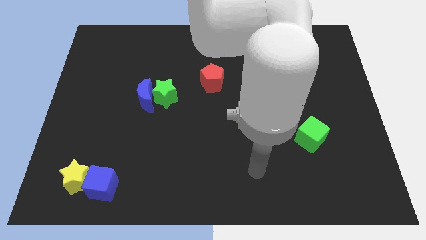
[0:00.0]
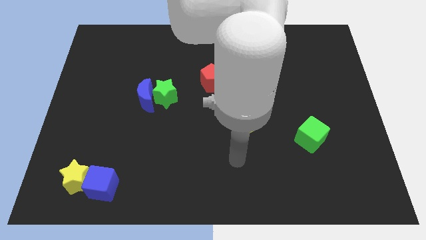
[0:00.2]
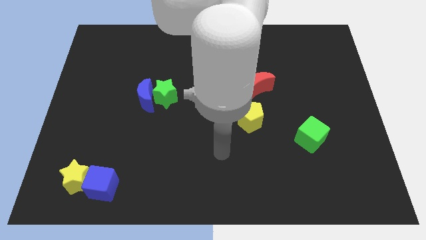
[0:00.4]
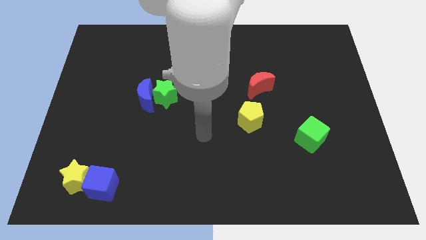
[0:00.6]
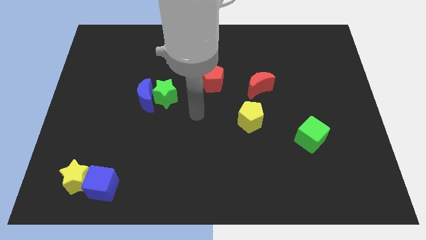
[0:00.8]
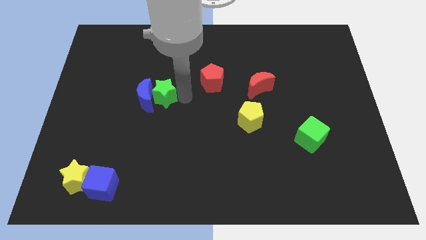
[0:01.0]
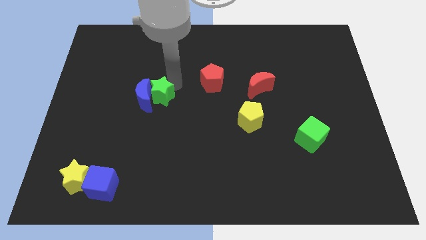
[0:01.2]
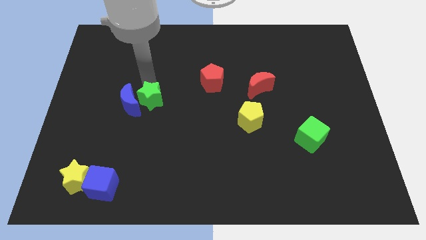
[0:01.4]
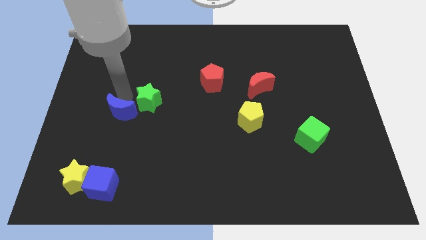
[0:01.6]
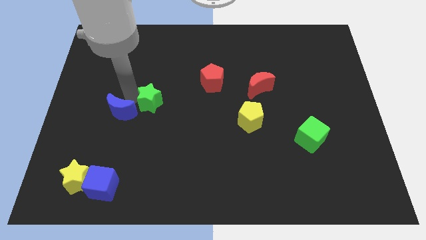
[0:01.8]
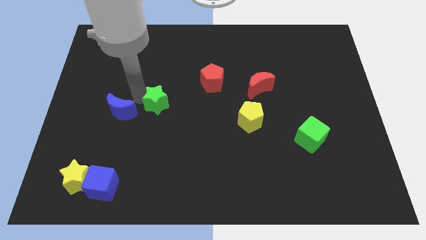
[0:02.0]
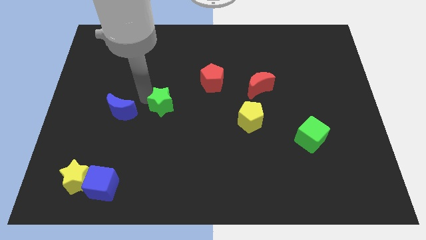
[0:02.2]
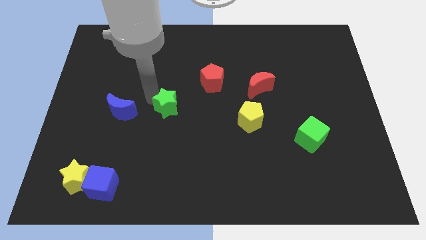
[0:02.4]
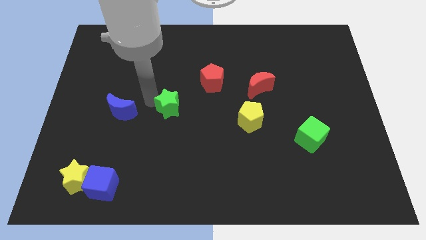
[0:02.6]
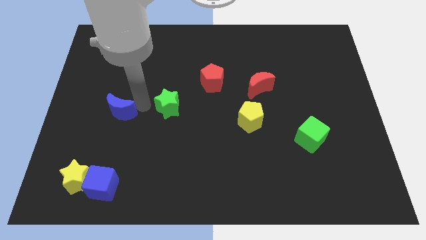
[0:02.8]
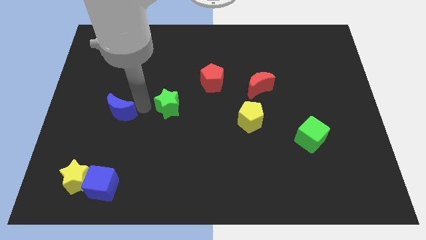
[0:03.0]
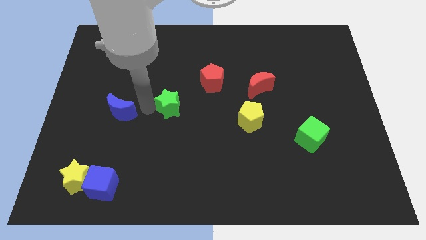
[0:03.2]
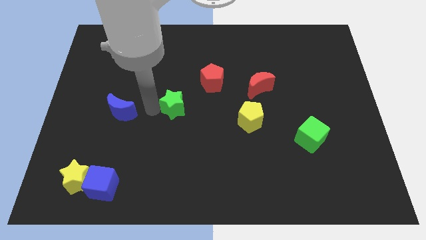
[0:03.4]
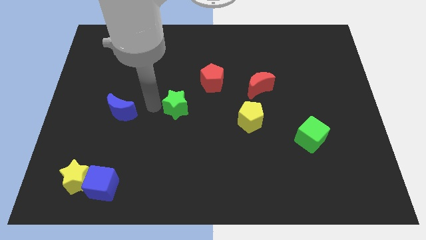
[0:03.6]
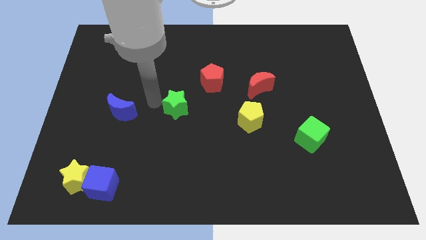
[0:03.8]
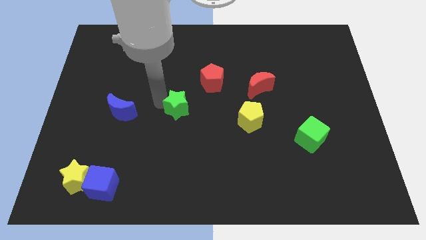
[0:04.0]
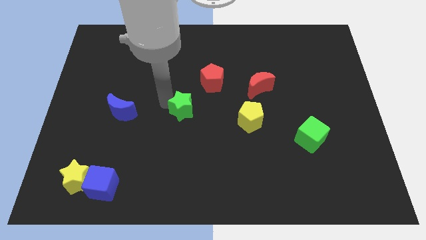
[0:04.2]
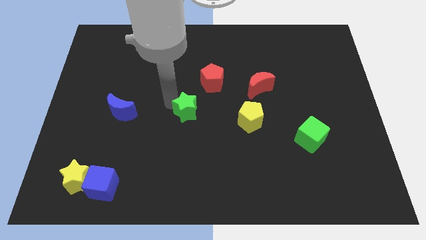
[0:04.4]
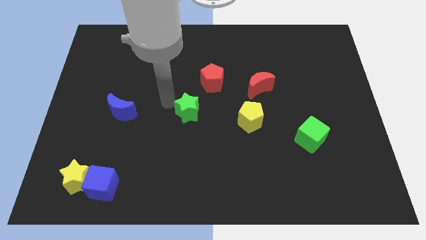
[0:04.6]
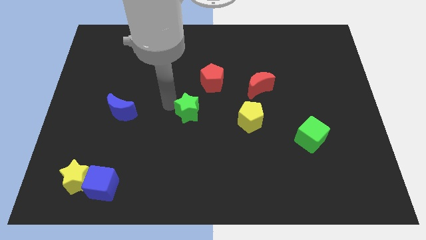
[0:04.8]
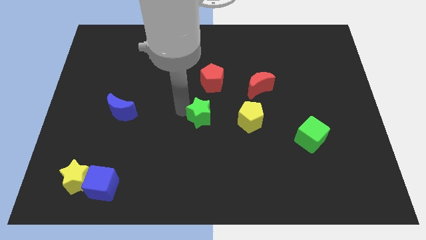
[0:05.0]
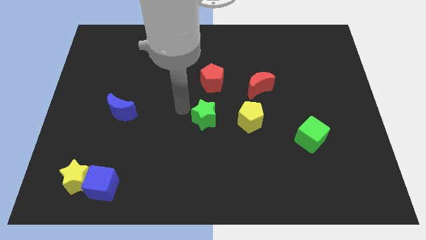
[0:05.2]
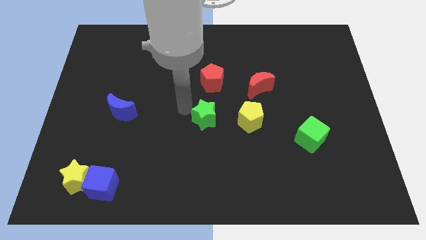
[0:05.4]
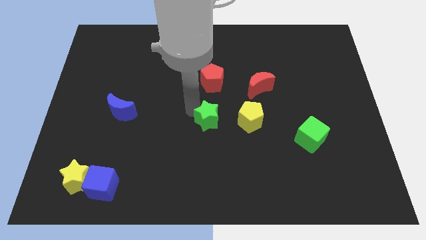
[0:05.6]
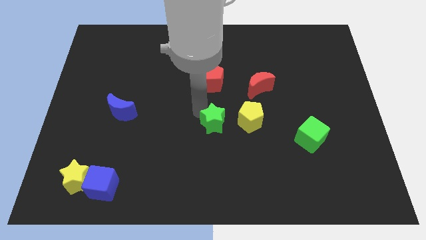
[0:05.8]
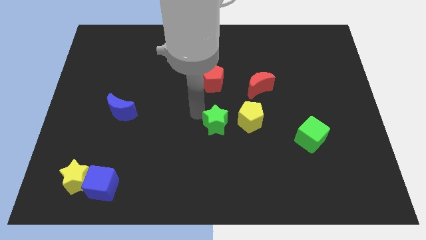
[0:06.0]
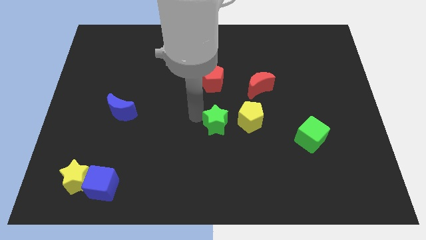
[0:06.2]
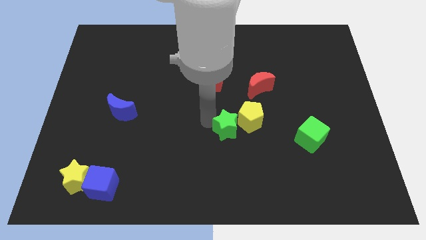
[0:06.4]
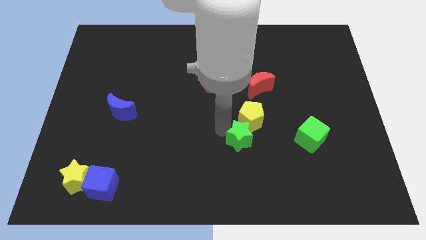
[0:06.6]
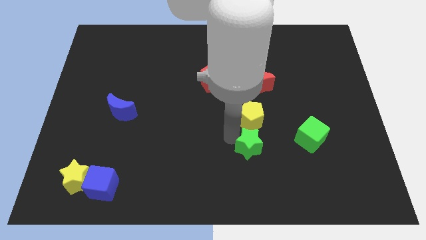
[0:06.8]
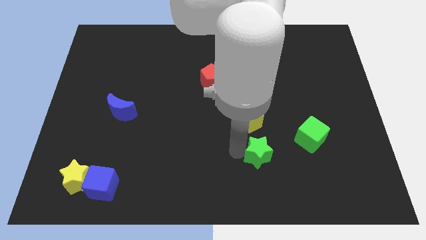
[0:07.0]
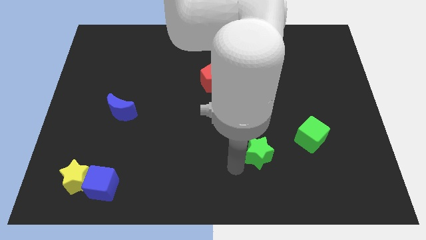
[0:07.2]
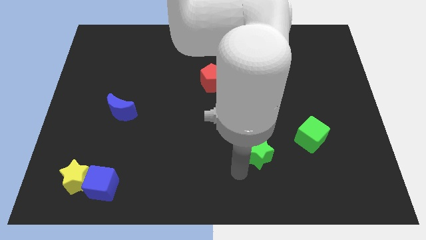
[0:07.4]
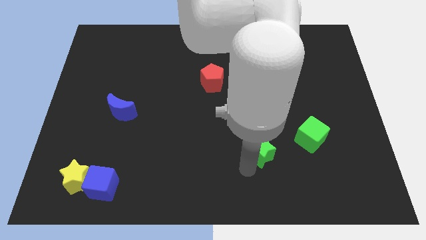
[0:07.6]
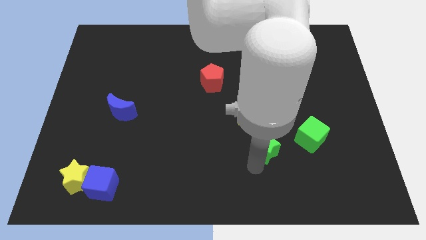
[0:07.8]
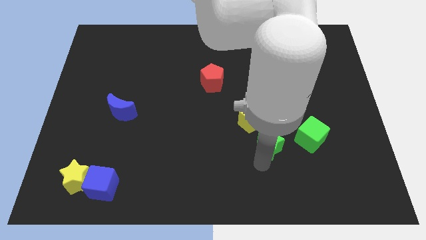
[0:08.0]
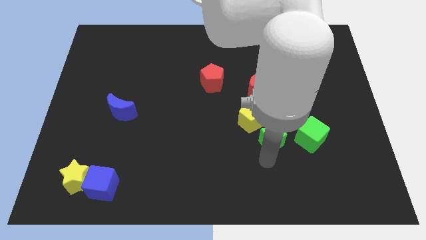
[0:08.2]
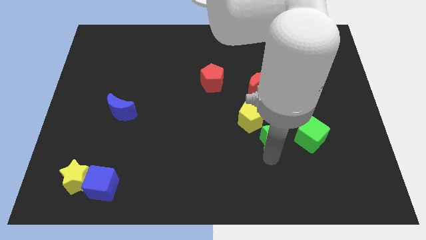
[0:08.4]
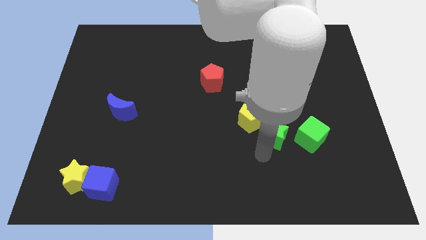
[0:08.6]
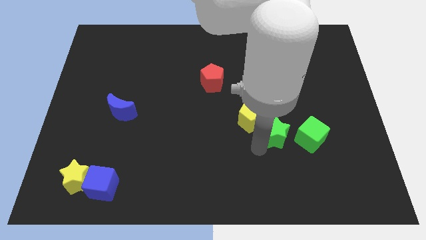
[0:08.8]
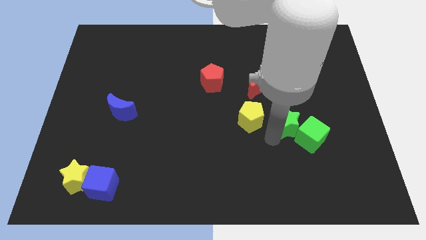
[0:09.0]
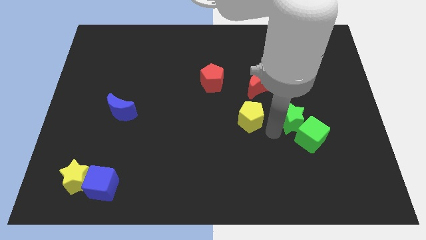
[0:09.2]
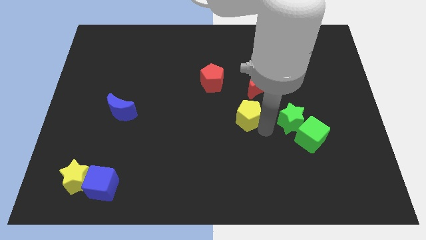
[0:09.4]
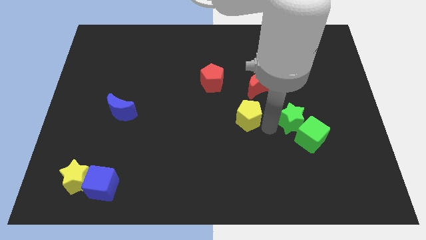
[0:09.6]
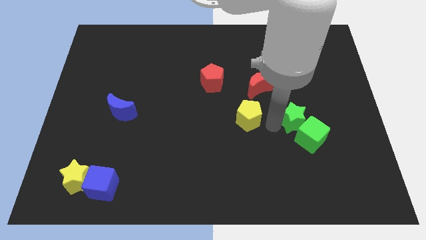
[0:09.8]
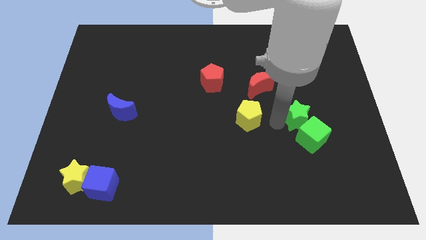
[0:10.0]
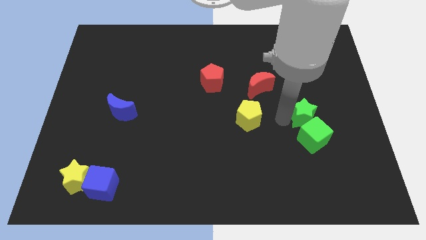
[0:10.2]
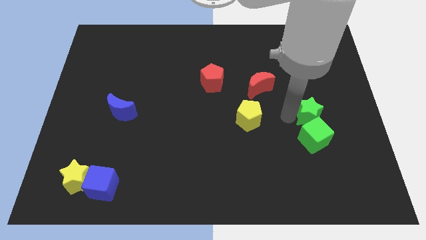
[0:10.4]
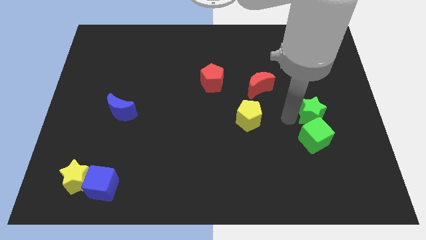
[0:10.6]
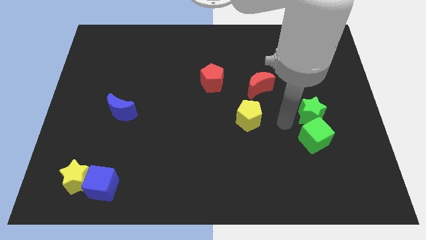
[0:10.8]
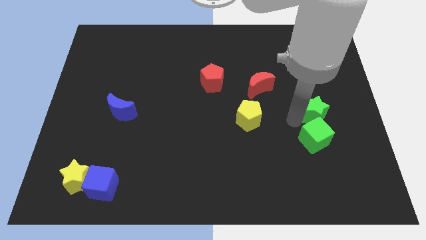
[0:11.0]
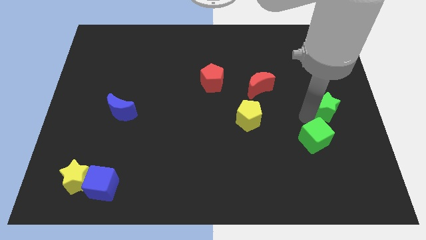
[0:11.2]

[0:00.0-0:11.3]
put the green star to the right side

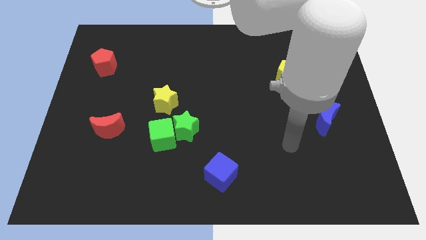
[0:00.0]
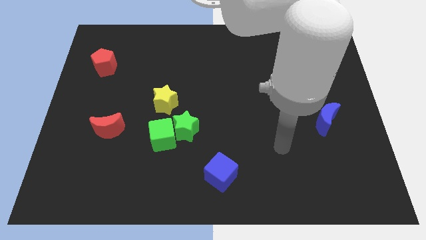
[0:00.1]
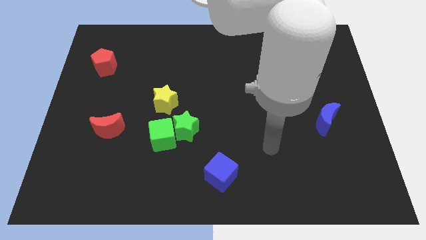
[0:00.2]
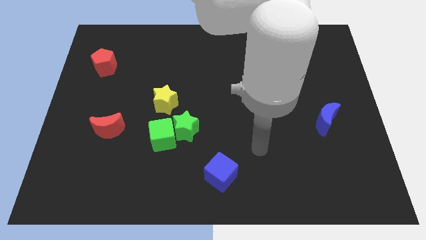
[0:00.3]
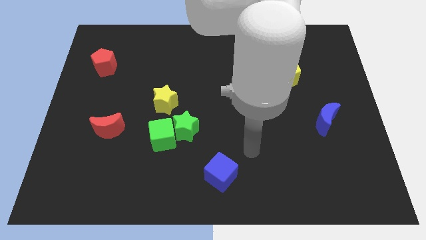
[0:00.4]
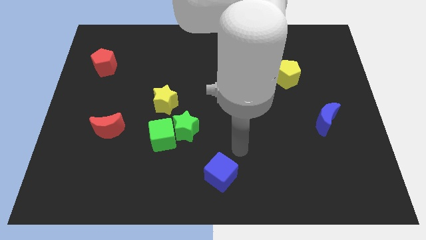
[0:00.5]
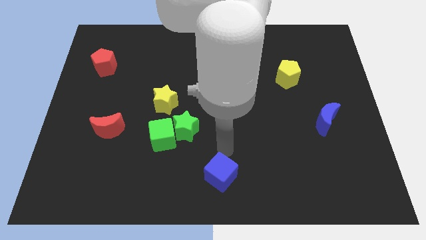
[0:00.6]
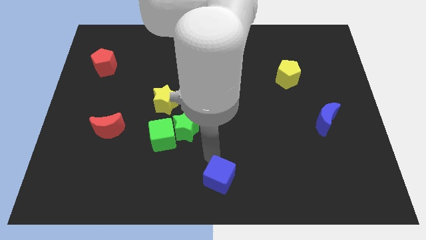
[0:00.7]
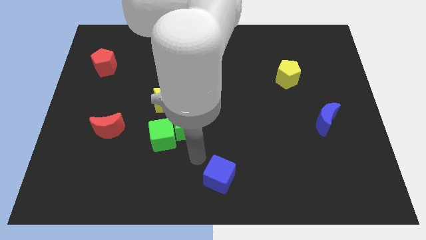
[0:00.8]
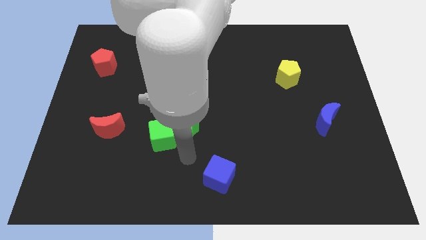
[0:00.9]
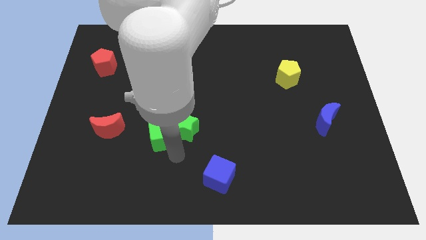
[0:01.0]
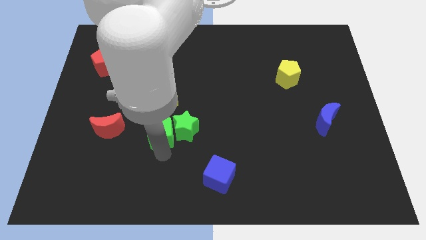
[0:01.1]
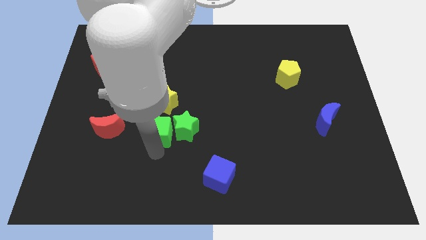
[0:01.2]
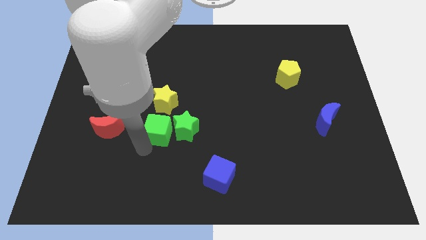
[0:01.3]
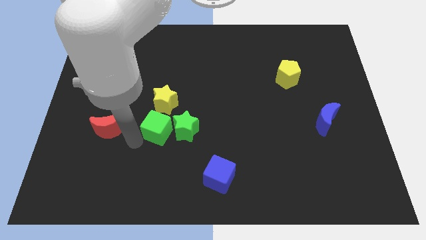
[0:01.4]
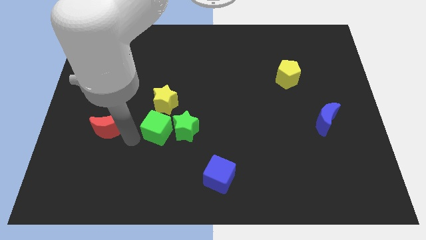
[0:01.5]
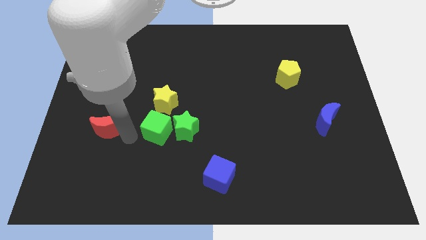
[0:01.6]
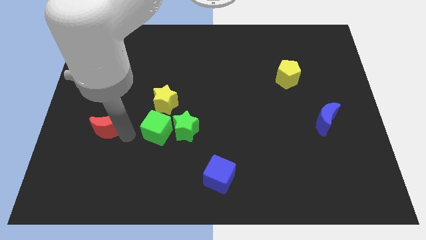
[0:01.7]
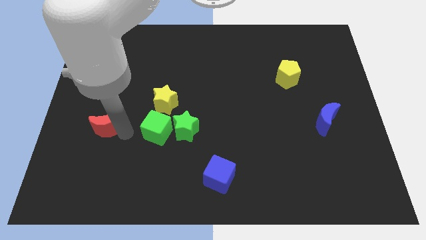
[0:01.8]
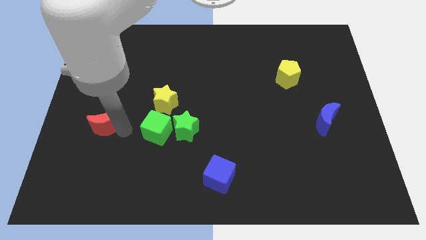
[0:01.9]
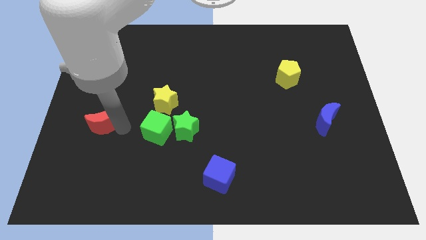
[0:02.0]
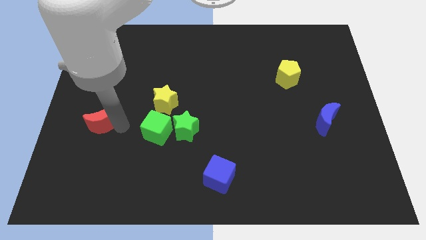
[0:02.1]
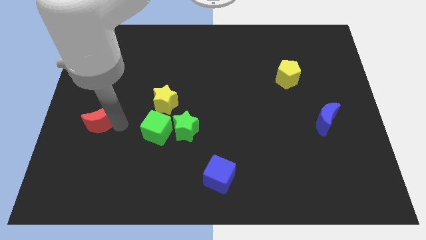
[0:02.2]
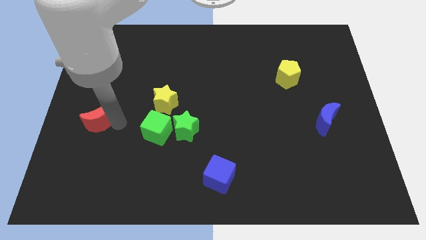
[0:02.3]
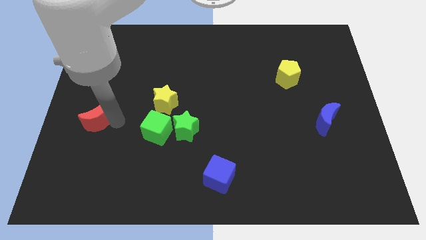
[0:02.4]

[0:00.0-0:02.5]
move the red moon to the left side of the board
